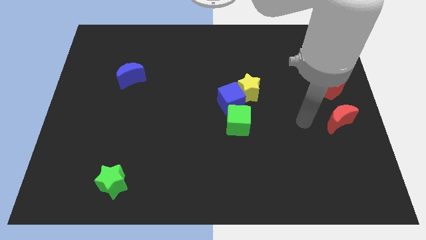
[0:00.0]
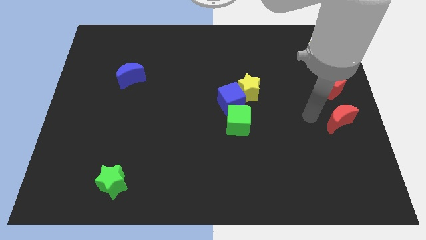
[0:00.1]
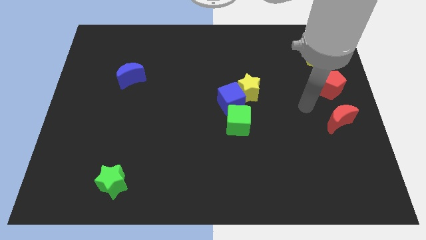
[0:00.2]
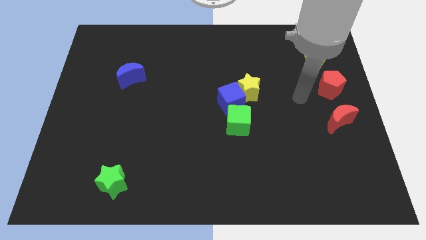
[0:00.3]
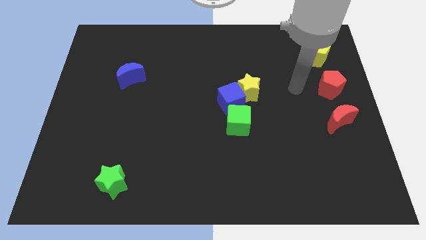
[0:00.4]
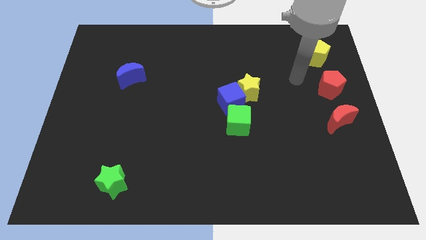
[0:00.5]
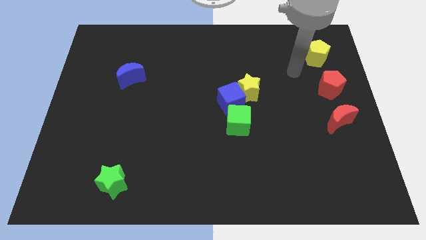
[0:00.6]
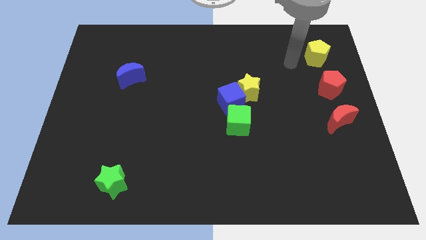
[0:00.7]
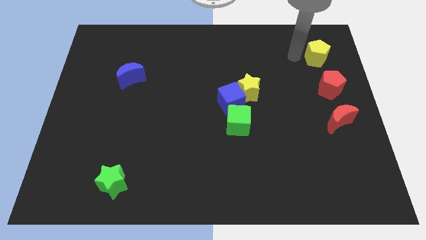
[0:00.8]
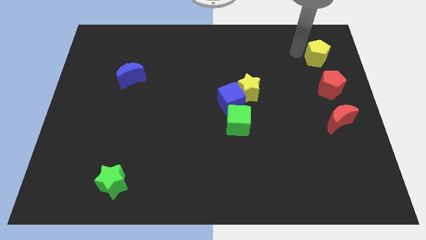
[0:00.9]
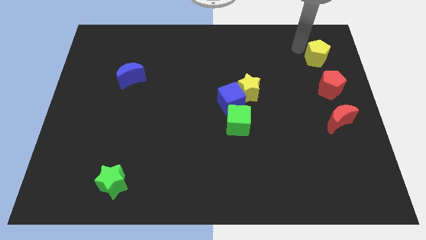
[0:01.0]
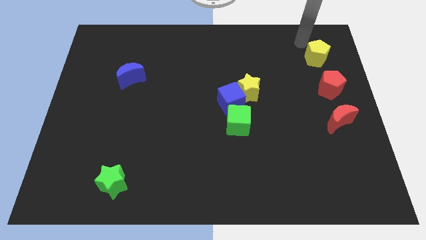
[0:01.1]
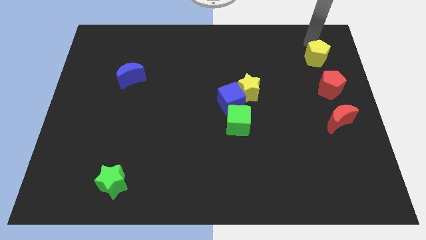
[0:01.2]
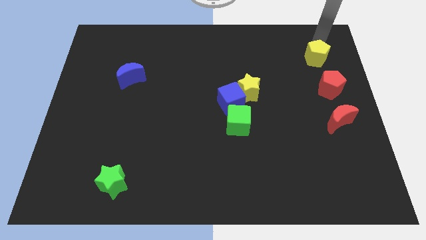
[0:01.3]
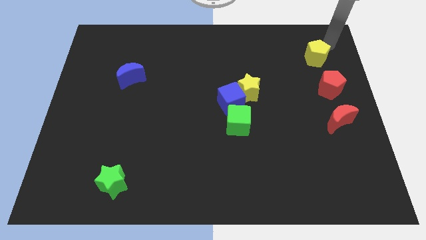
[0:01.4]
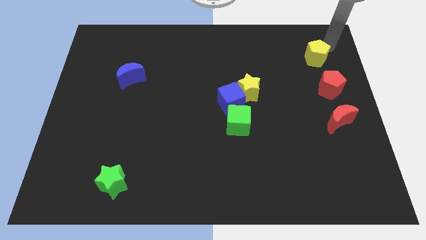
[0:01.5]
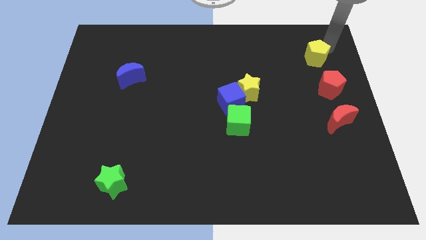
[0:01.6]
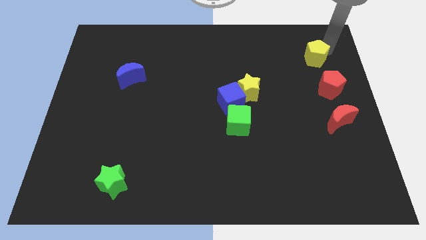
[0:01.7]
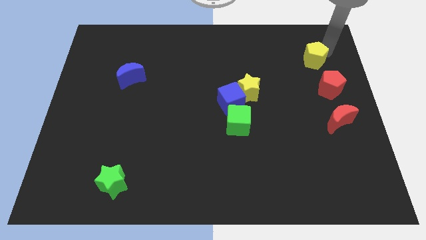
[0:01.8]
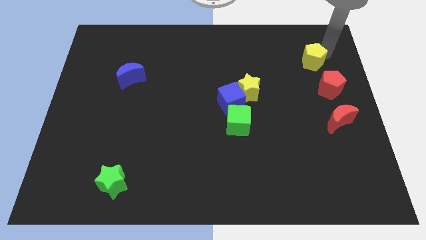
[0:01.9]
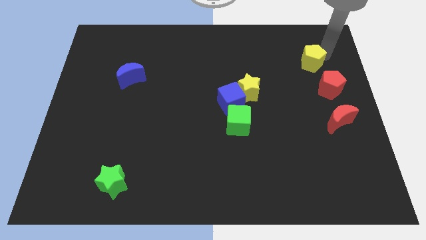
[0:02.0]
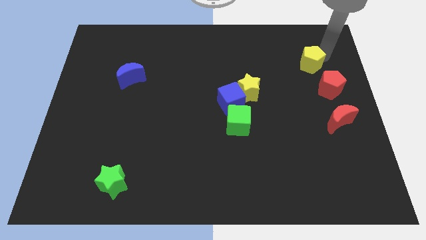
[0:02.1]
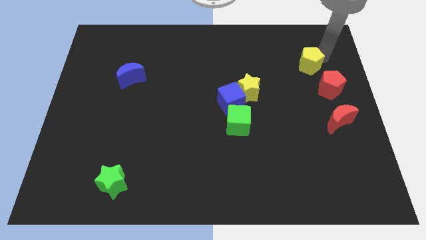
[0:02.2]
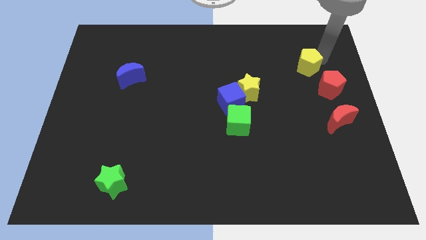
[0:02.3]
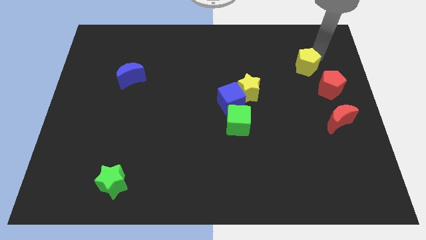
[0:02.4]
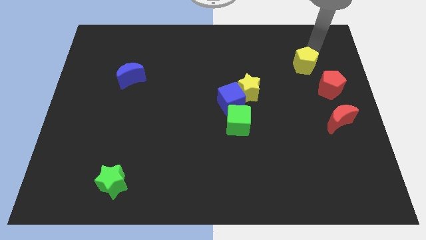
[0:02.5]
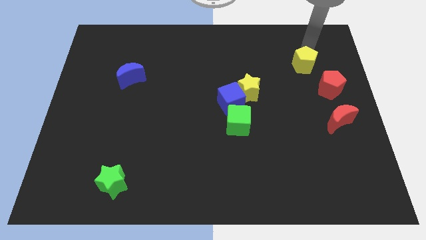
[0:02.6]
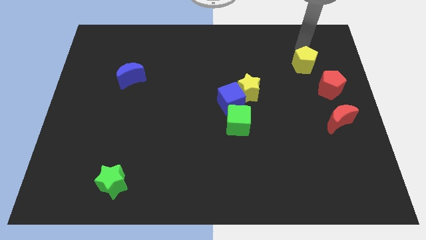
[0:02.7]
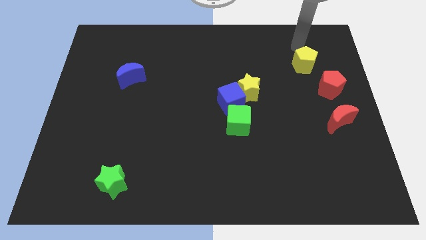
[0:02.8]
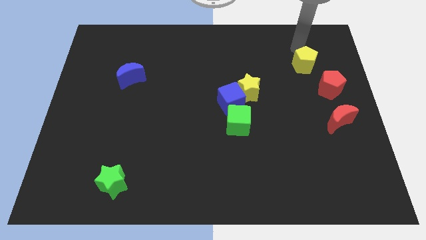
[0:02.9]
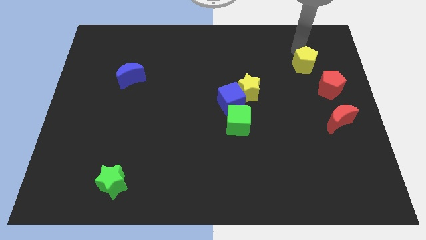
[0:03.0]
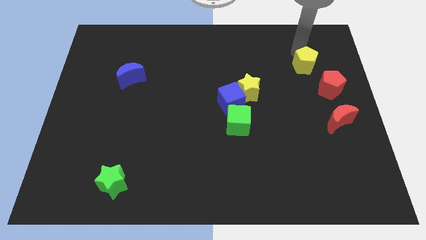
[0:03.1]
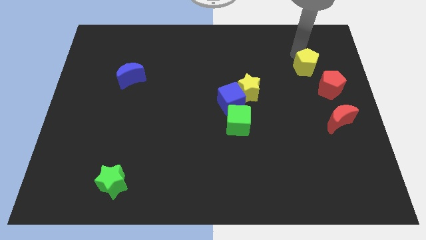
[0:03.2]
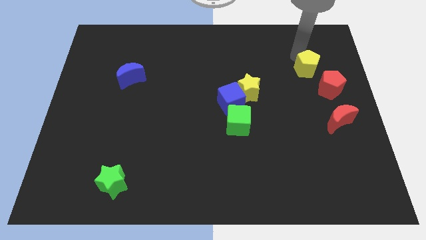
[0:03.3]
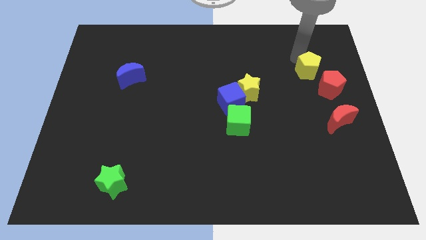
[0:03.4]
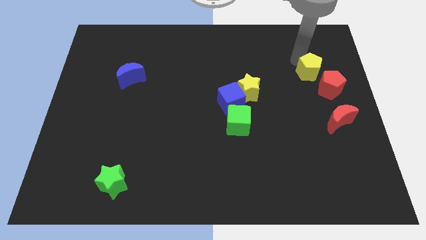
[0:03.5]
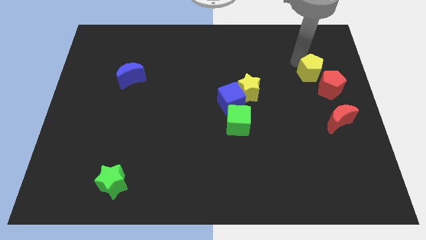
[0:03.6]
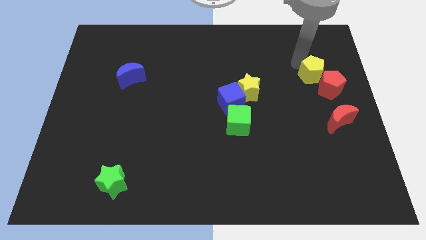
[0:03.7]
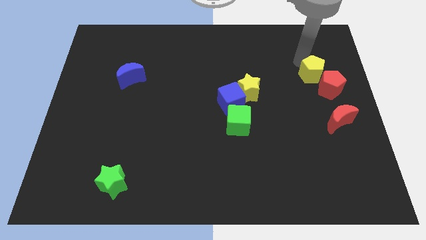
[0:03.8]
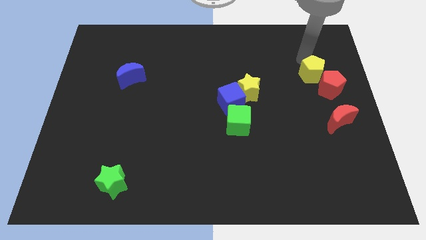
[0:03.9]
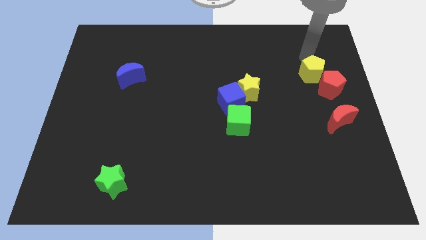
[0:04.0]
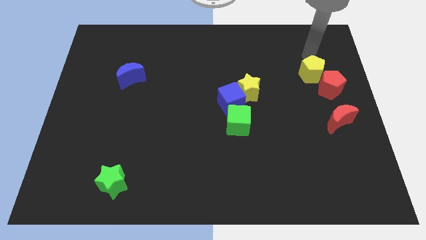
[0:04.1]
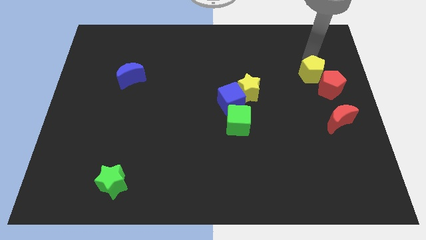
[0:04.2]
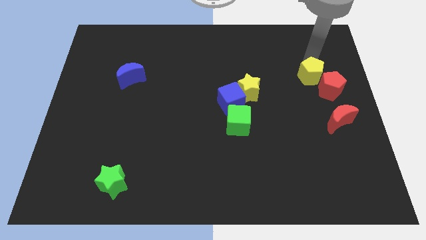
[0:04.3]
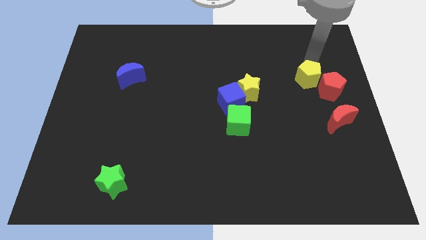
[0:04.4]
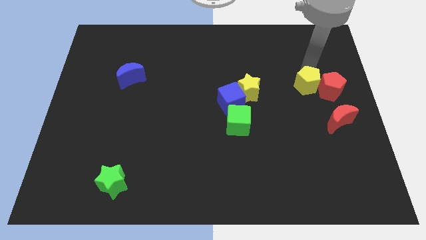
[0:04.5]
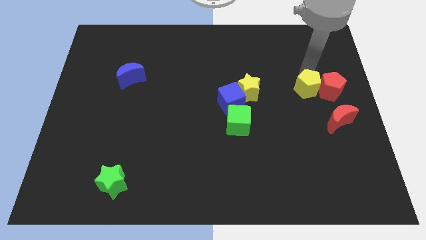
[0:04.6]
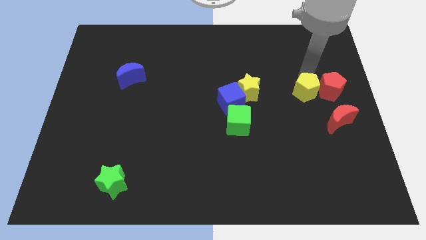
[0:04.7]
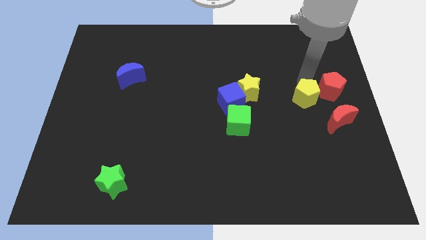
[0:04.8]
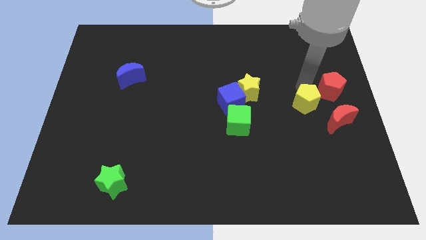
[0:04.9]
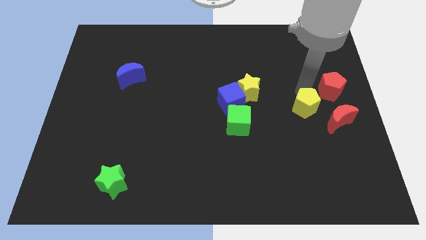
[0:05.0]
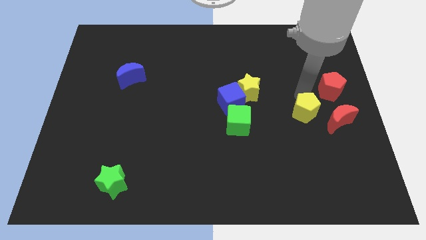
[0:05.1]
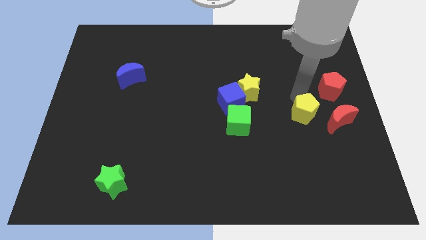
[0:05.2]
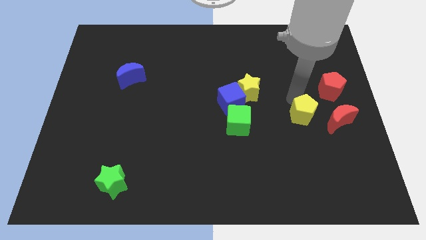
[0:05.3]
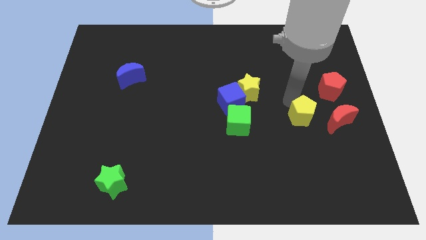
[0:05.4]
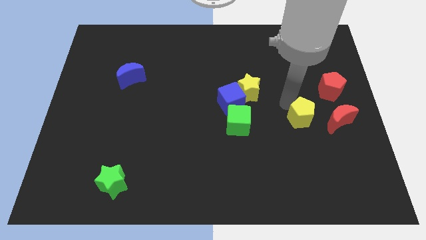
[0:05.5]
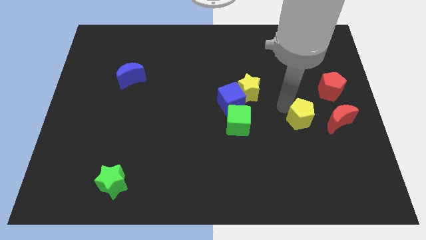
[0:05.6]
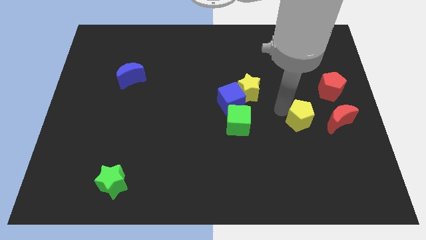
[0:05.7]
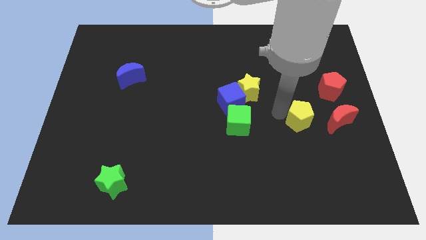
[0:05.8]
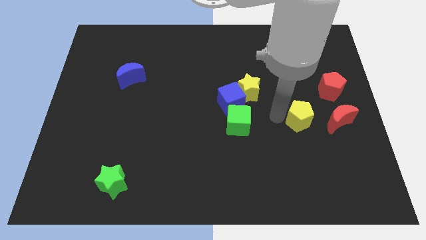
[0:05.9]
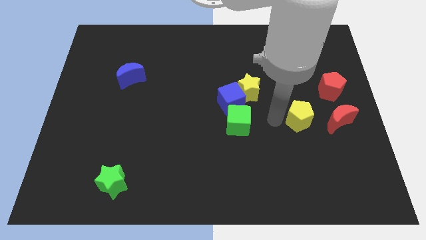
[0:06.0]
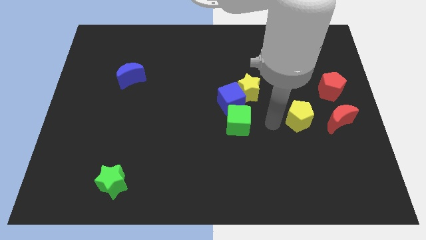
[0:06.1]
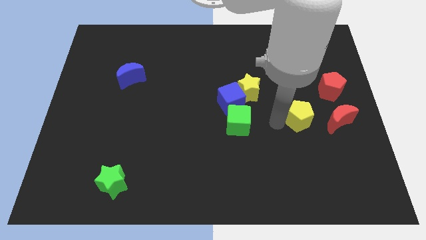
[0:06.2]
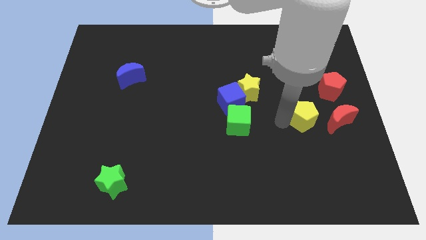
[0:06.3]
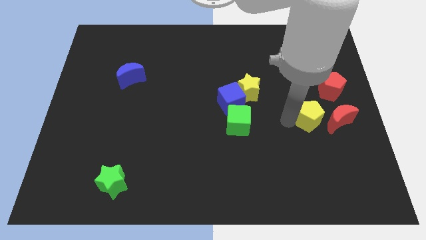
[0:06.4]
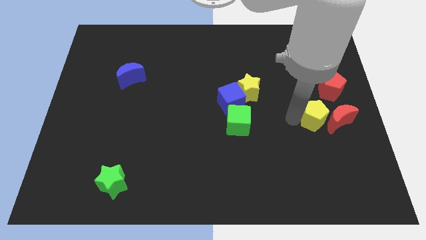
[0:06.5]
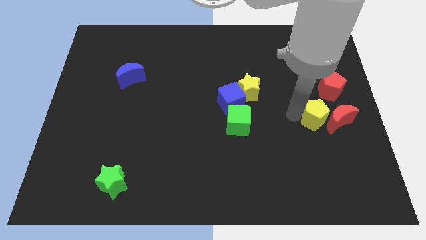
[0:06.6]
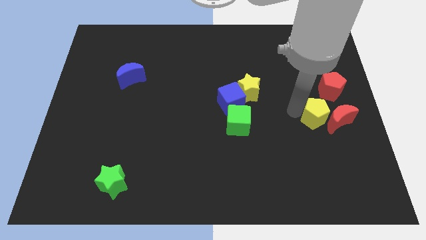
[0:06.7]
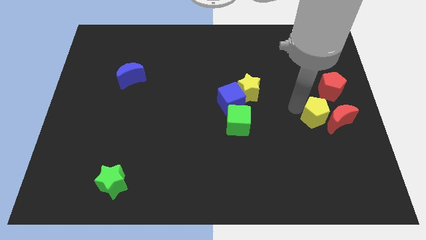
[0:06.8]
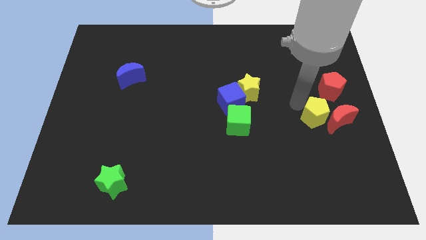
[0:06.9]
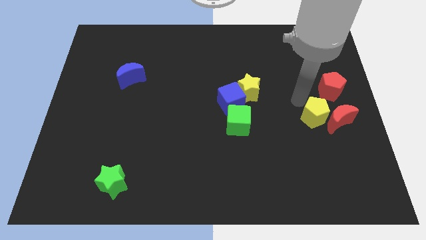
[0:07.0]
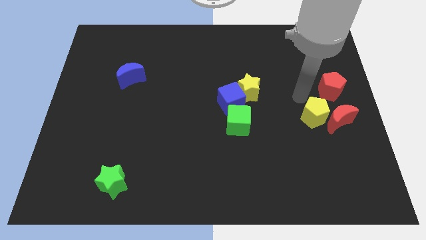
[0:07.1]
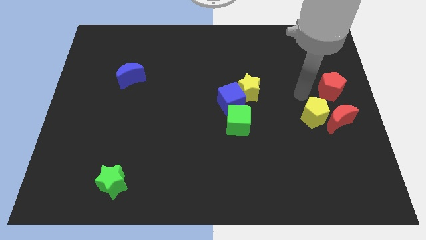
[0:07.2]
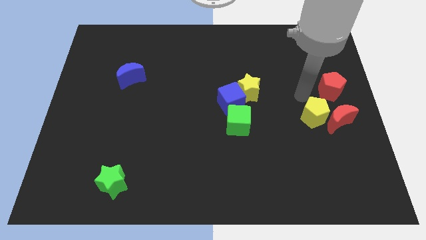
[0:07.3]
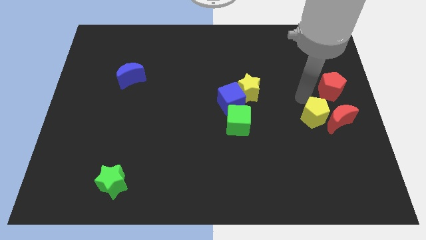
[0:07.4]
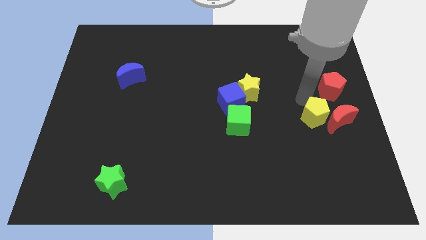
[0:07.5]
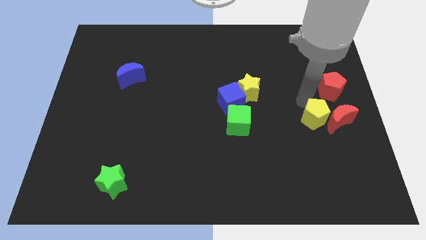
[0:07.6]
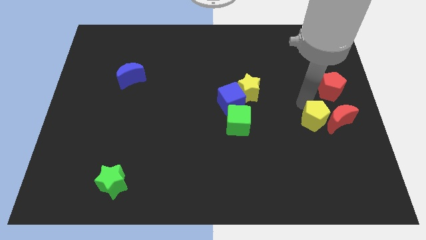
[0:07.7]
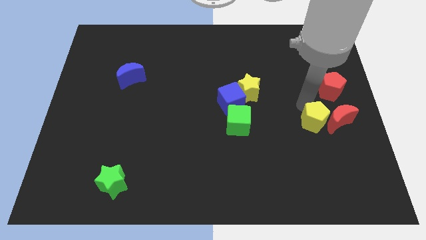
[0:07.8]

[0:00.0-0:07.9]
push the yellow pentagon downwards

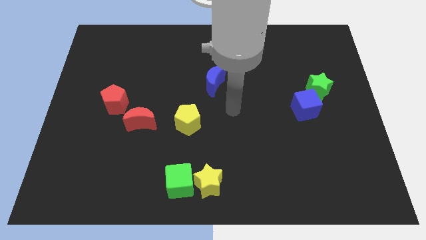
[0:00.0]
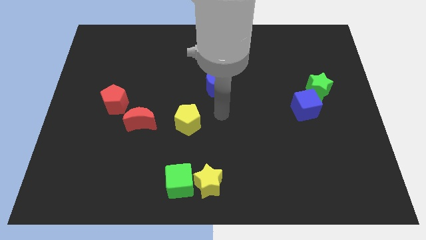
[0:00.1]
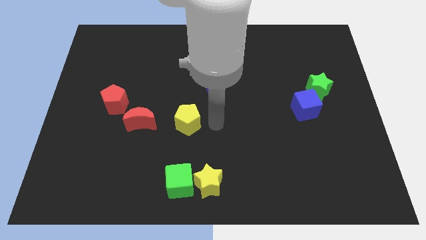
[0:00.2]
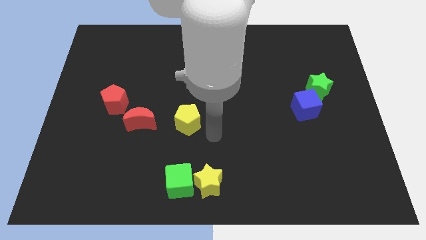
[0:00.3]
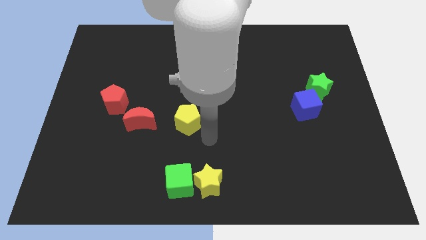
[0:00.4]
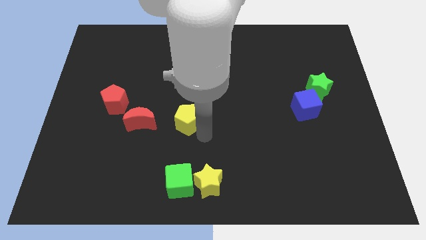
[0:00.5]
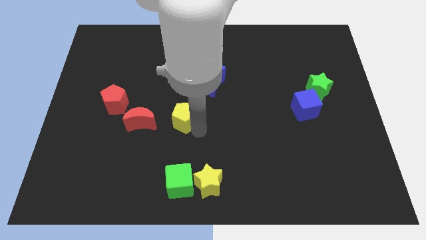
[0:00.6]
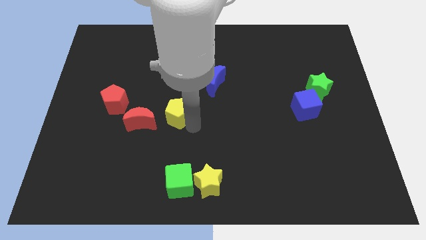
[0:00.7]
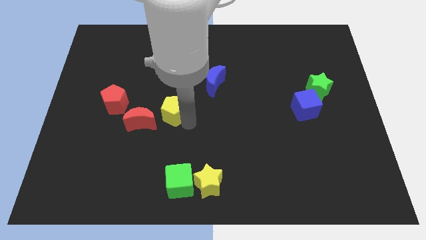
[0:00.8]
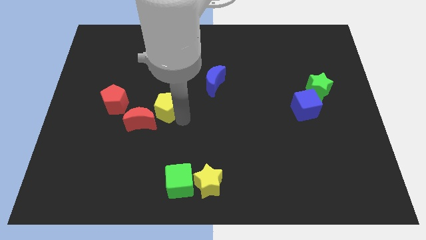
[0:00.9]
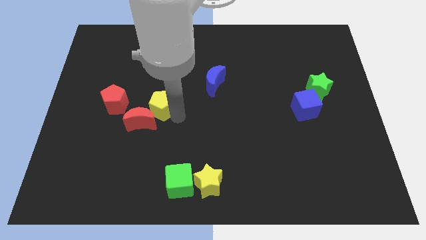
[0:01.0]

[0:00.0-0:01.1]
move the yellow pentagon a bit diagonally upwards and left
